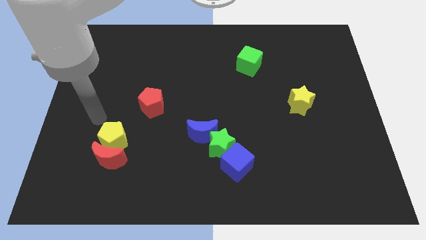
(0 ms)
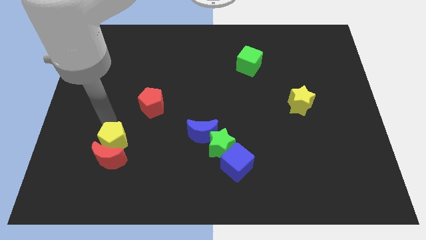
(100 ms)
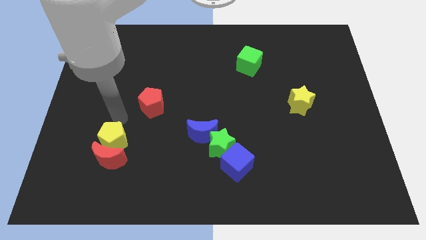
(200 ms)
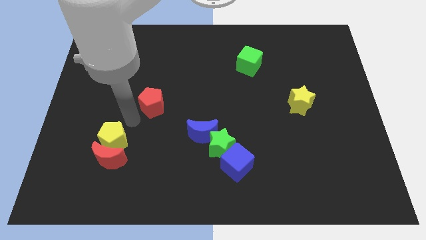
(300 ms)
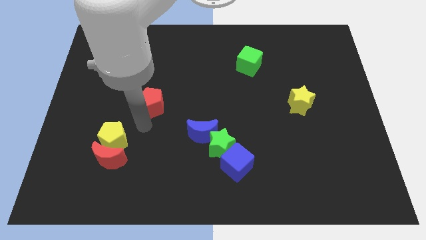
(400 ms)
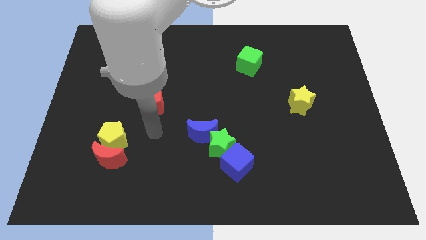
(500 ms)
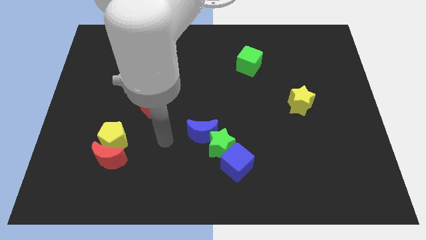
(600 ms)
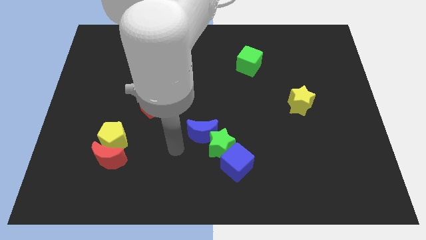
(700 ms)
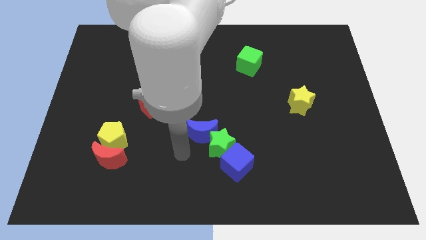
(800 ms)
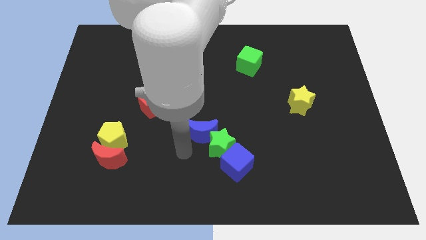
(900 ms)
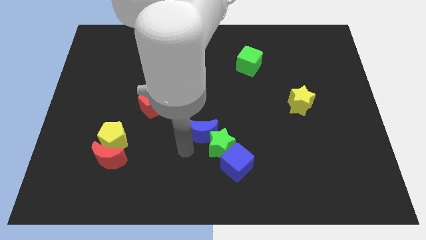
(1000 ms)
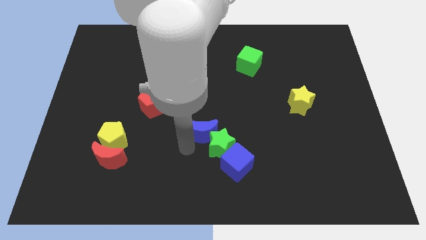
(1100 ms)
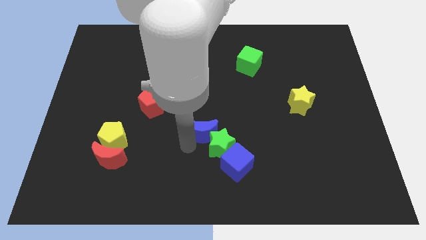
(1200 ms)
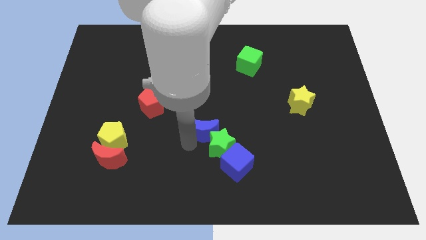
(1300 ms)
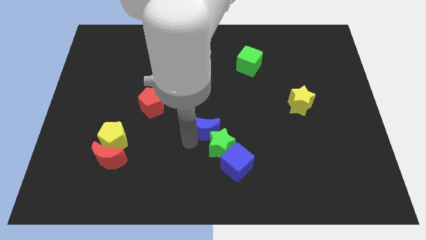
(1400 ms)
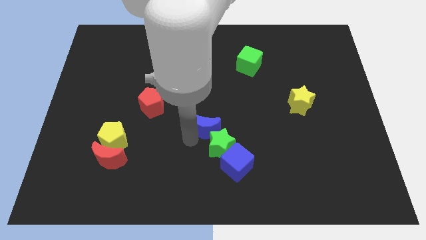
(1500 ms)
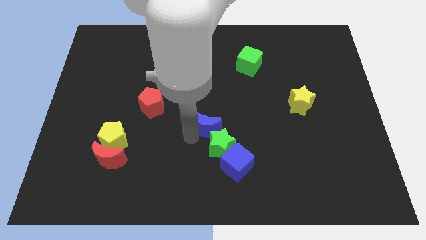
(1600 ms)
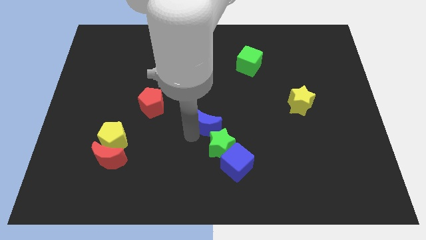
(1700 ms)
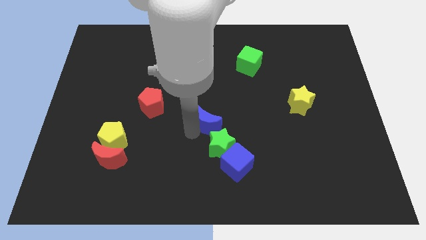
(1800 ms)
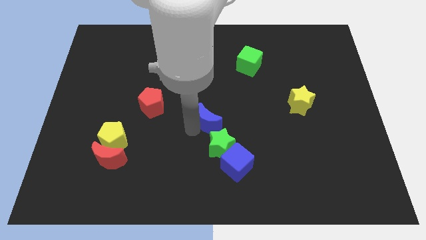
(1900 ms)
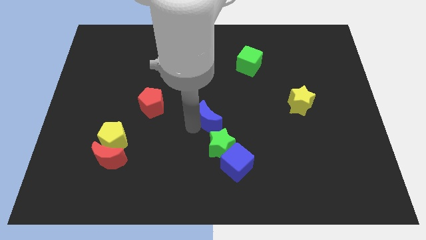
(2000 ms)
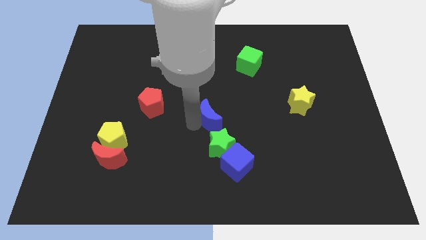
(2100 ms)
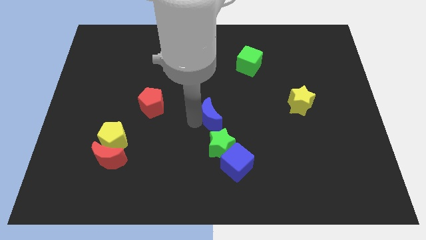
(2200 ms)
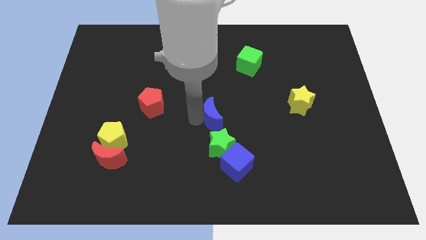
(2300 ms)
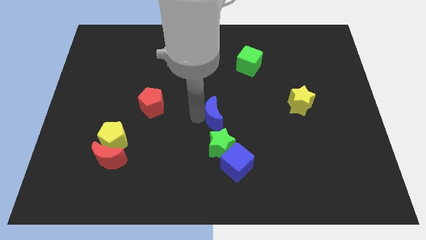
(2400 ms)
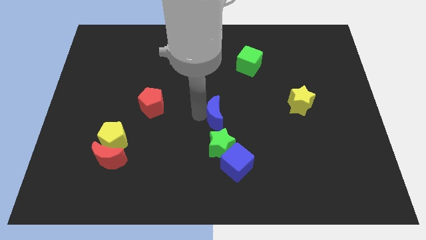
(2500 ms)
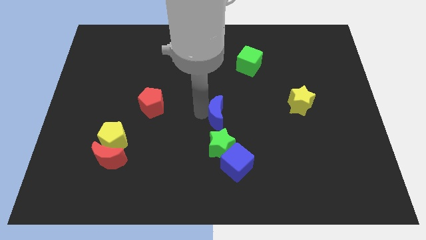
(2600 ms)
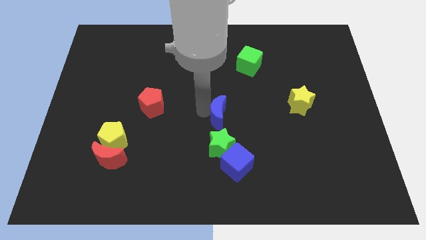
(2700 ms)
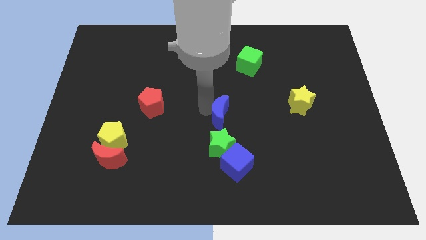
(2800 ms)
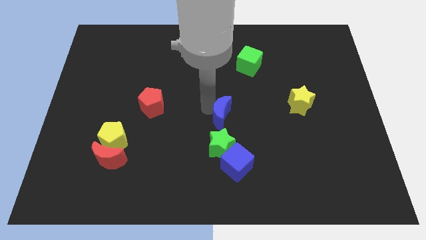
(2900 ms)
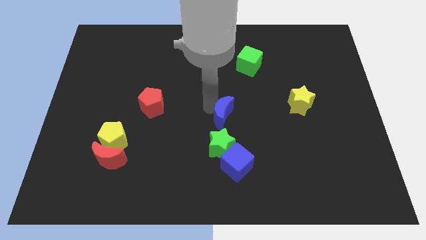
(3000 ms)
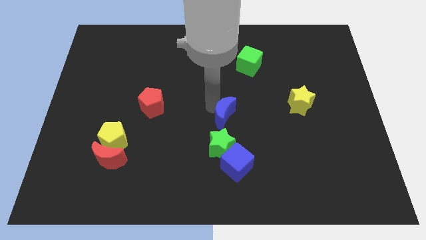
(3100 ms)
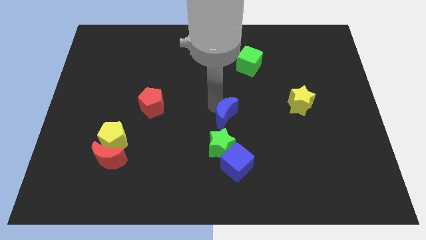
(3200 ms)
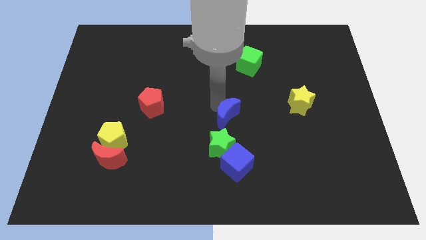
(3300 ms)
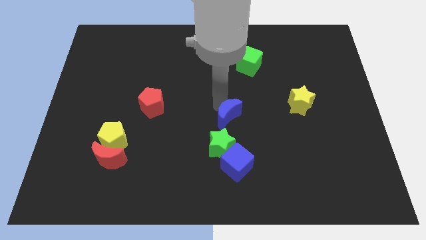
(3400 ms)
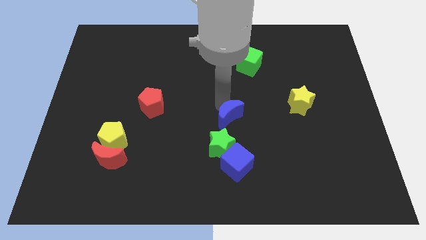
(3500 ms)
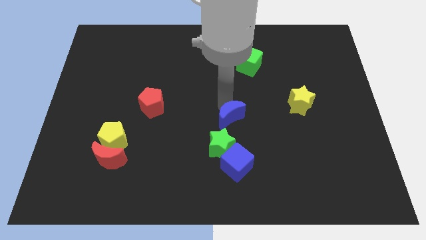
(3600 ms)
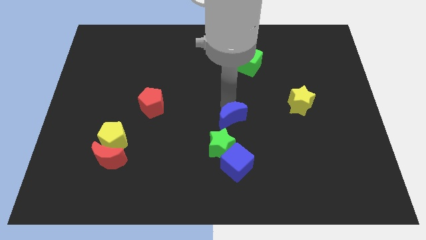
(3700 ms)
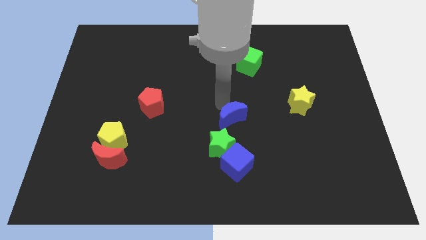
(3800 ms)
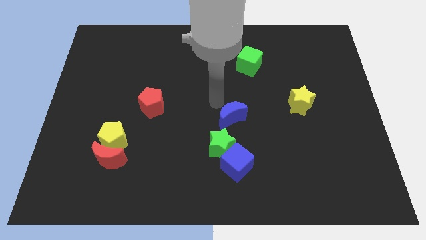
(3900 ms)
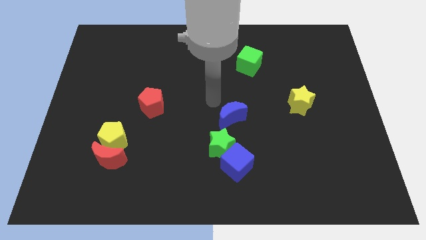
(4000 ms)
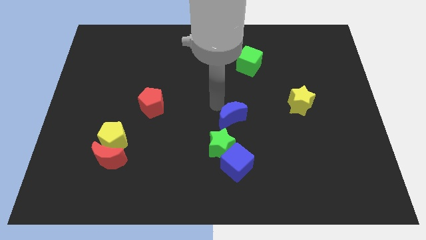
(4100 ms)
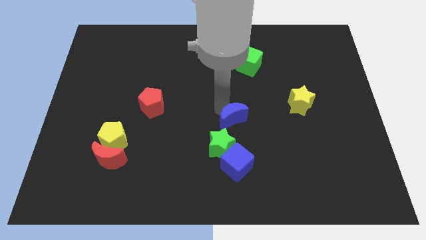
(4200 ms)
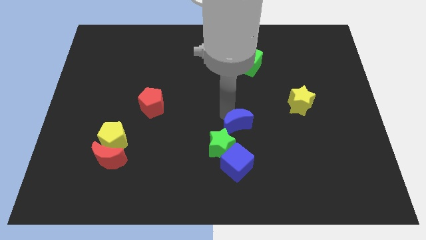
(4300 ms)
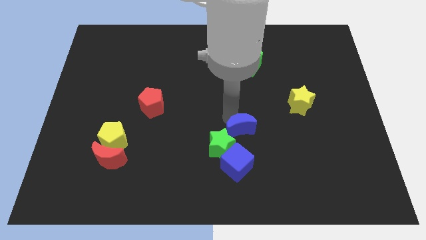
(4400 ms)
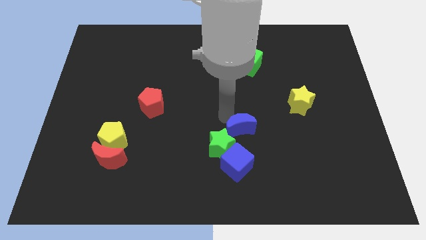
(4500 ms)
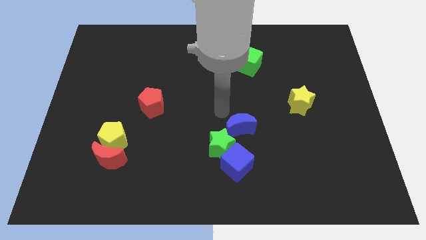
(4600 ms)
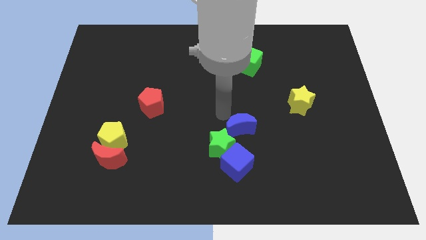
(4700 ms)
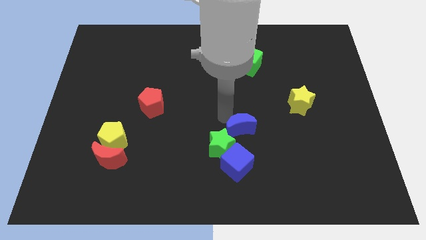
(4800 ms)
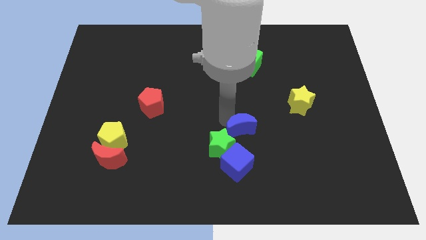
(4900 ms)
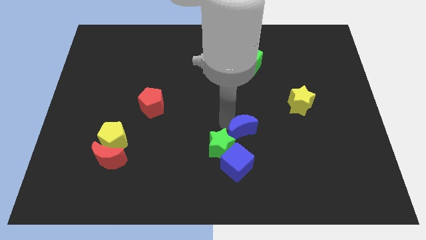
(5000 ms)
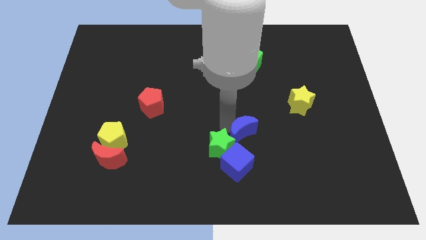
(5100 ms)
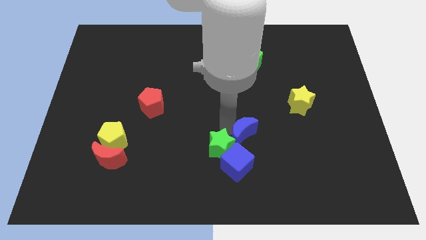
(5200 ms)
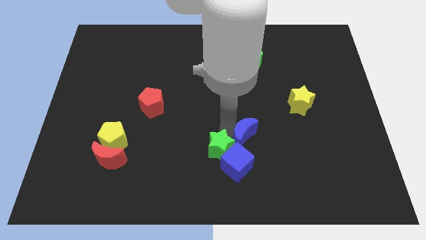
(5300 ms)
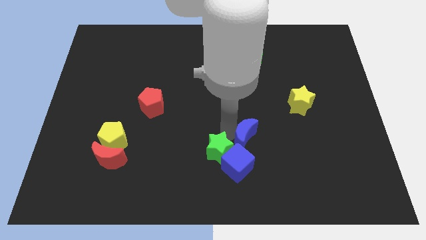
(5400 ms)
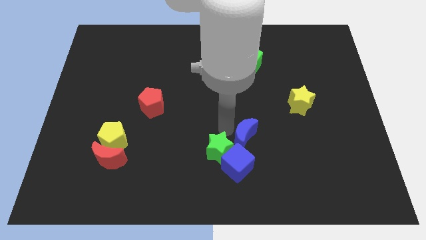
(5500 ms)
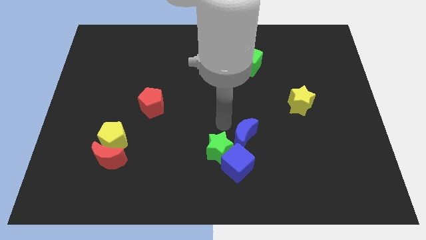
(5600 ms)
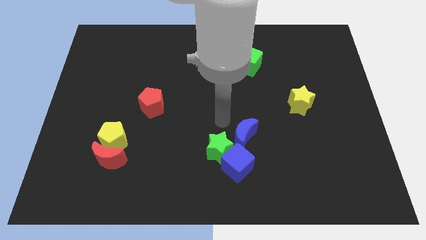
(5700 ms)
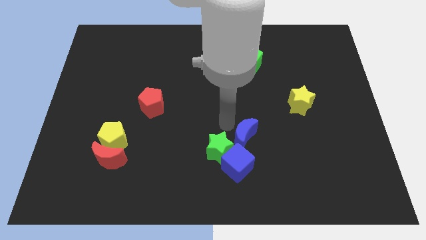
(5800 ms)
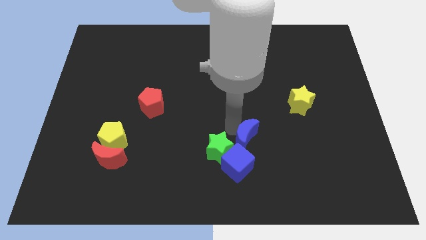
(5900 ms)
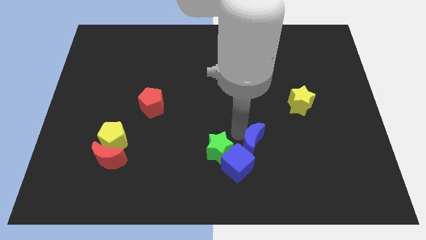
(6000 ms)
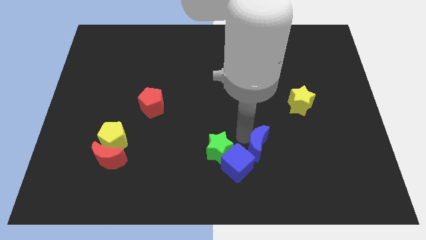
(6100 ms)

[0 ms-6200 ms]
push the blue moon to the right side of the blue cube

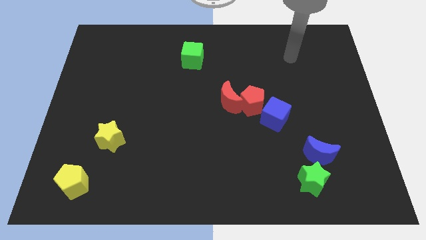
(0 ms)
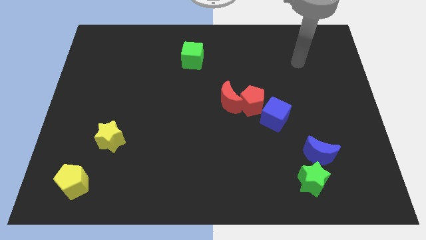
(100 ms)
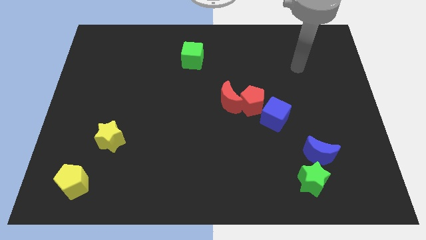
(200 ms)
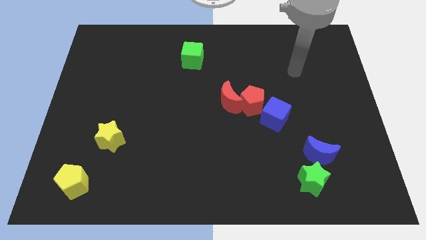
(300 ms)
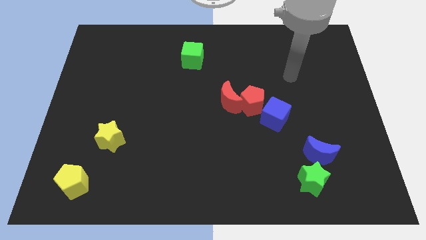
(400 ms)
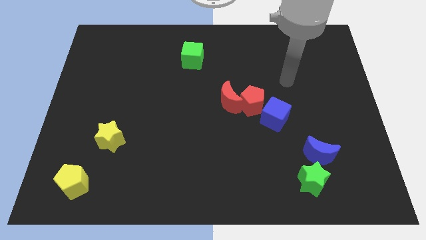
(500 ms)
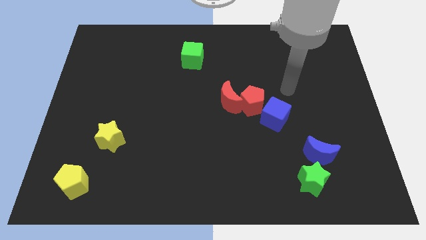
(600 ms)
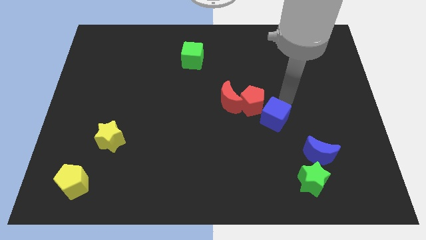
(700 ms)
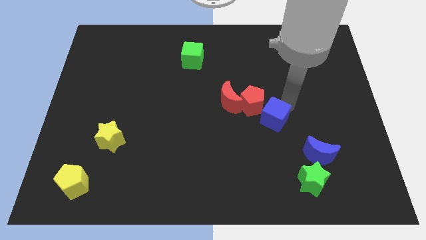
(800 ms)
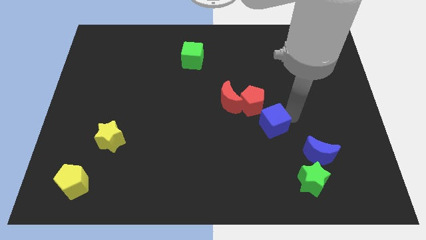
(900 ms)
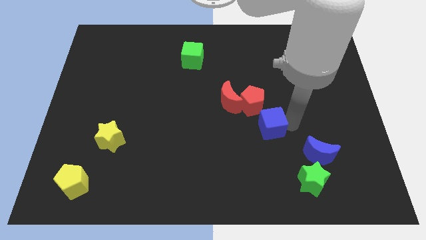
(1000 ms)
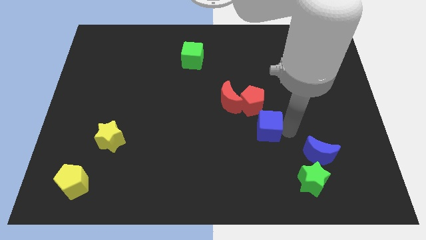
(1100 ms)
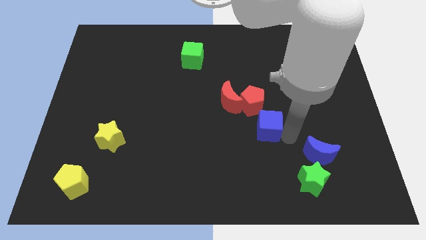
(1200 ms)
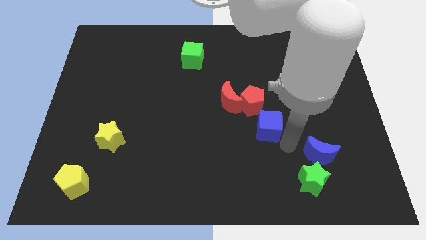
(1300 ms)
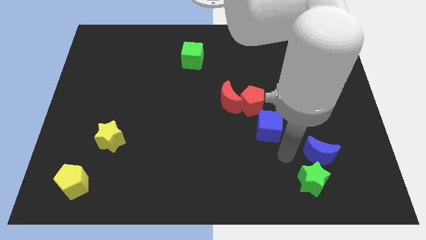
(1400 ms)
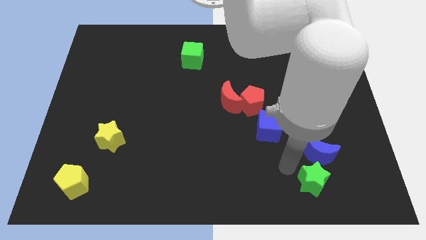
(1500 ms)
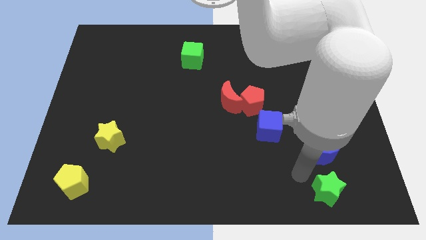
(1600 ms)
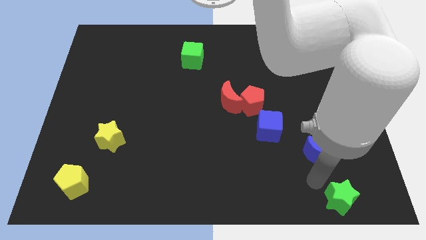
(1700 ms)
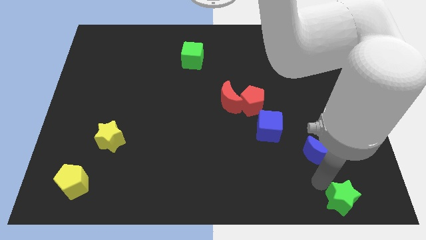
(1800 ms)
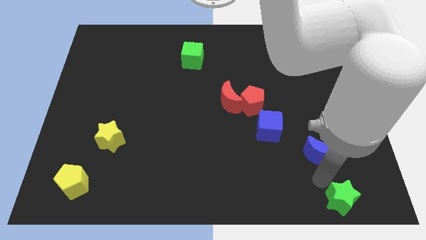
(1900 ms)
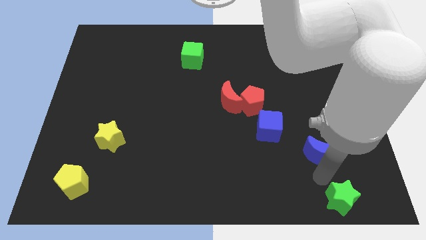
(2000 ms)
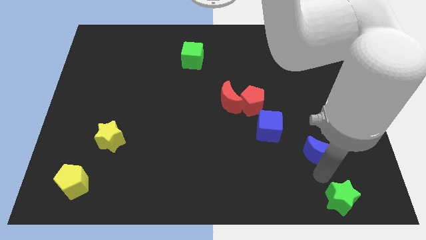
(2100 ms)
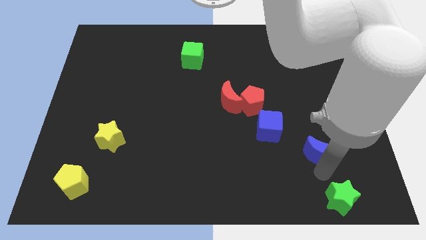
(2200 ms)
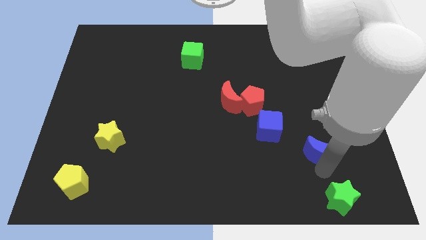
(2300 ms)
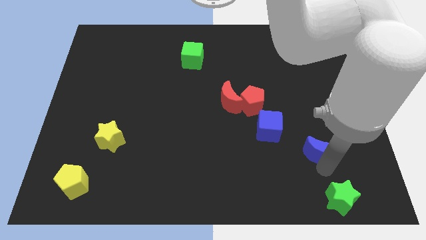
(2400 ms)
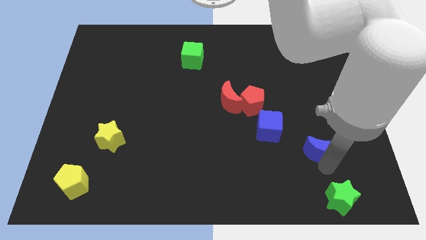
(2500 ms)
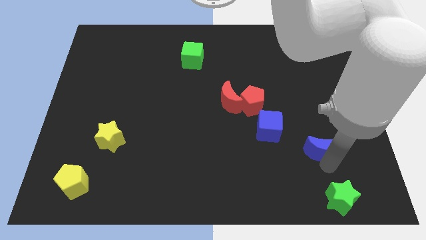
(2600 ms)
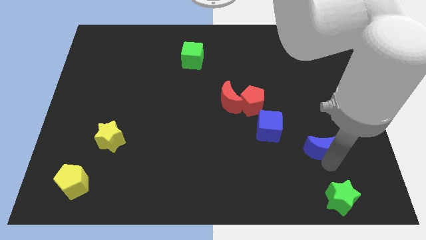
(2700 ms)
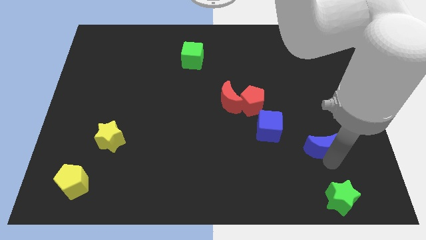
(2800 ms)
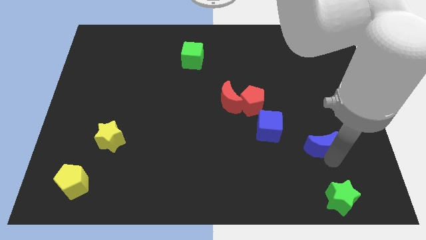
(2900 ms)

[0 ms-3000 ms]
slide the blue moon to the right of the blue cube
